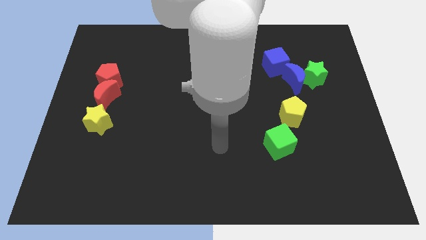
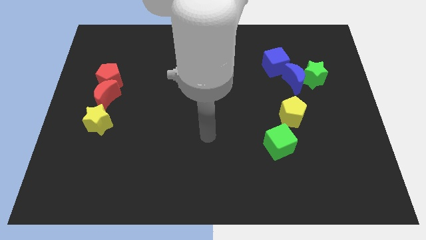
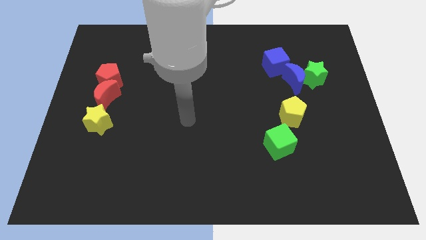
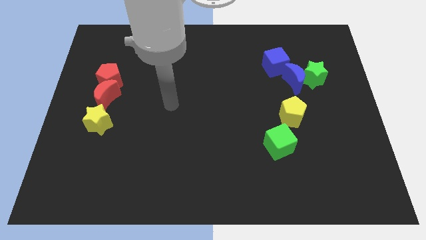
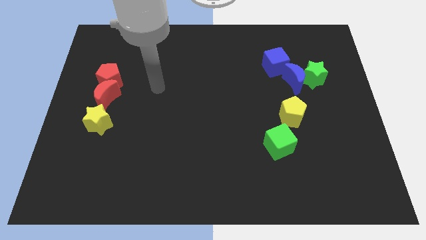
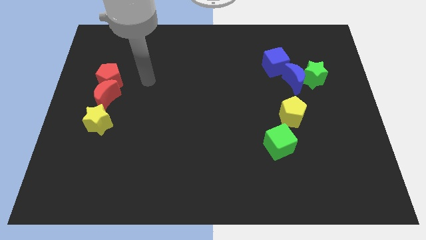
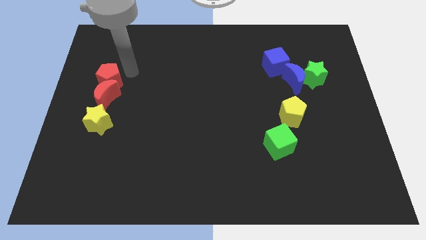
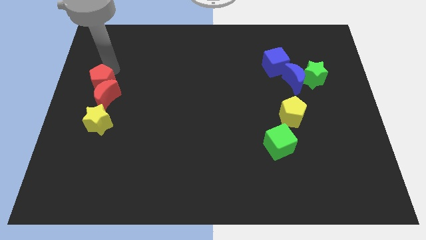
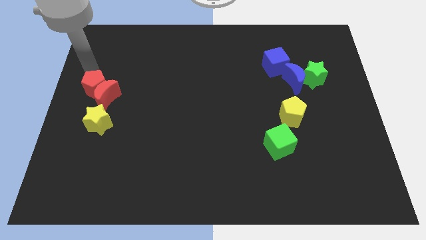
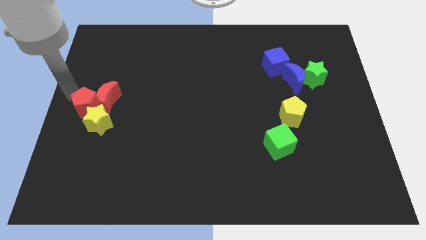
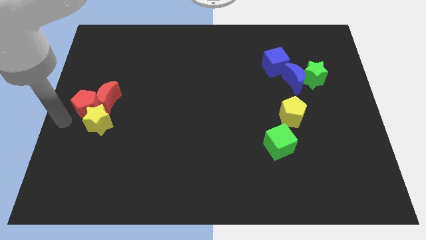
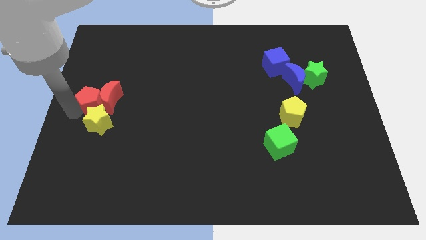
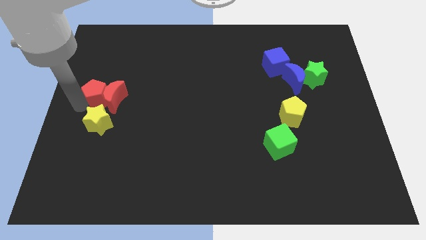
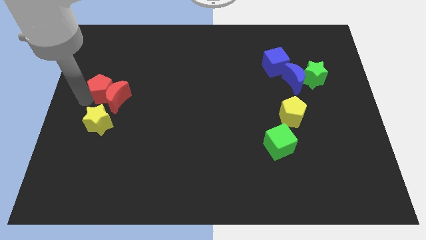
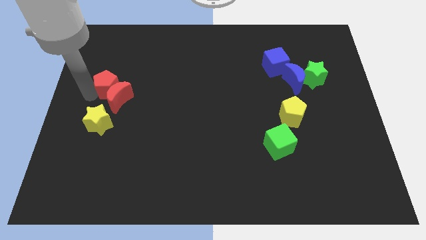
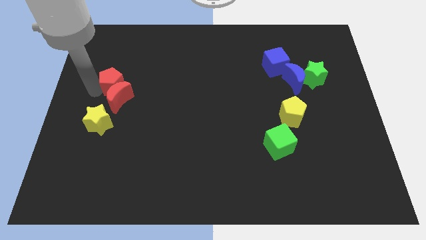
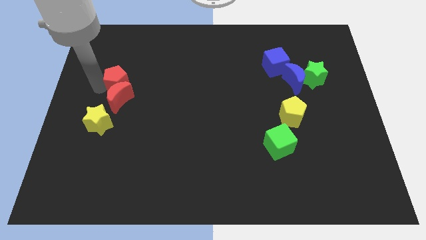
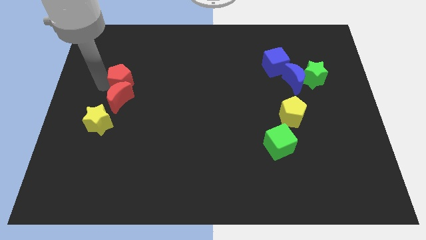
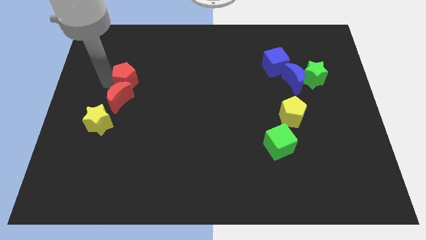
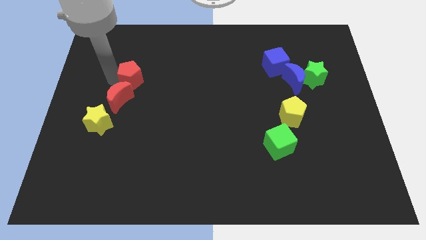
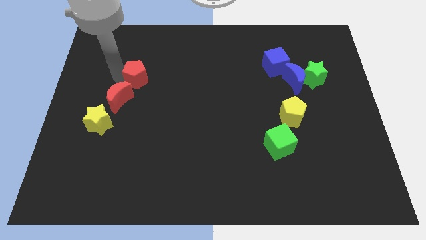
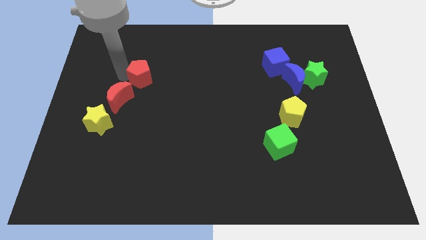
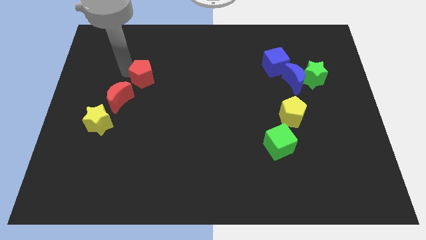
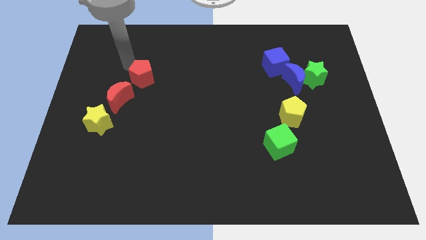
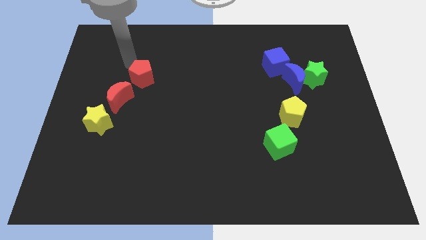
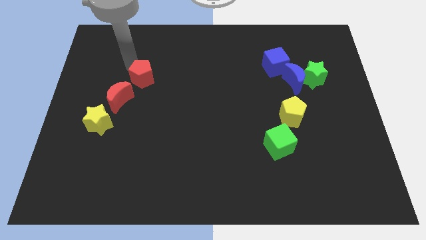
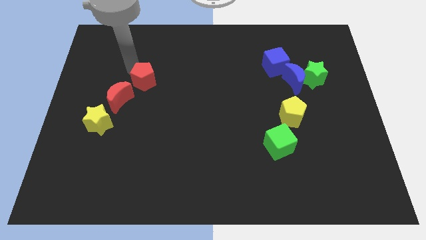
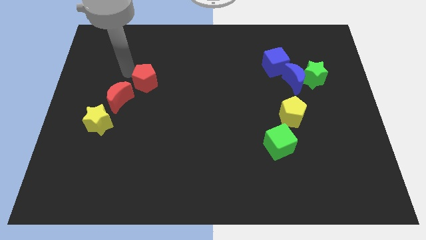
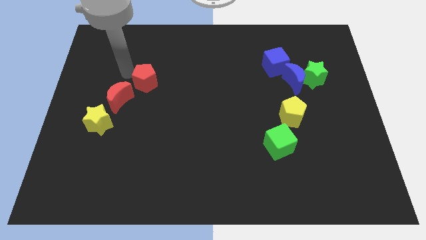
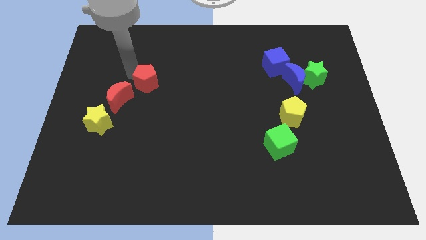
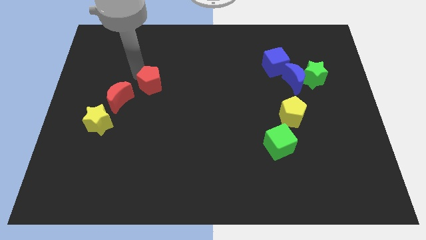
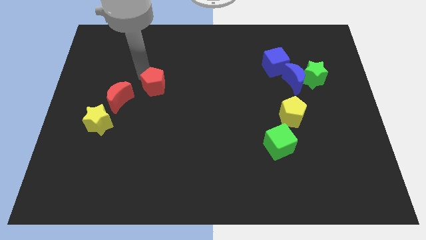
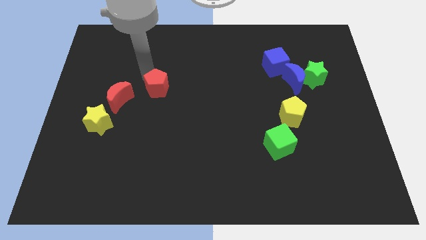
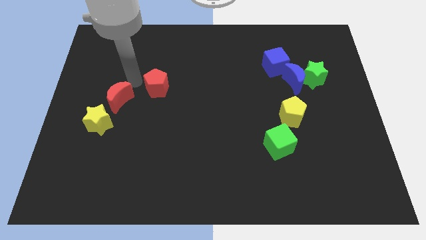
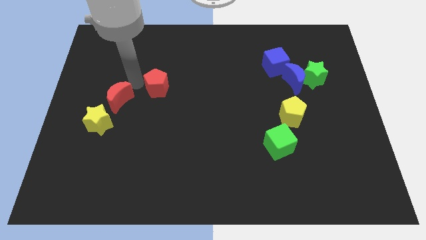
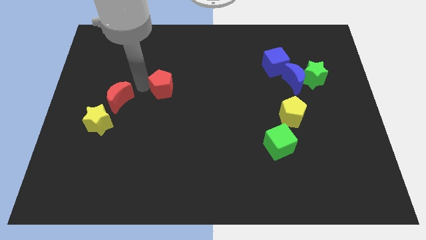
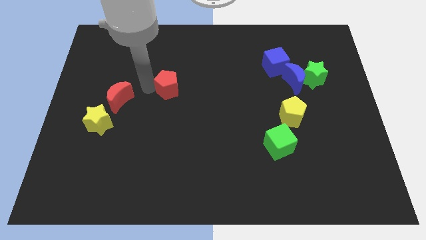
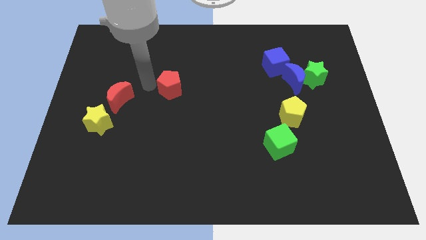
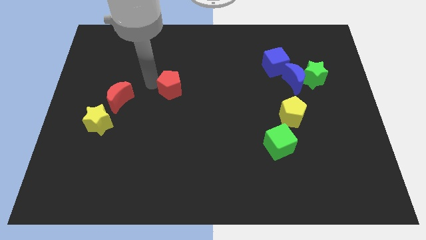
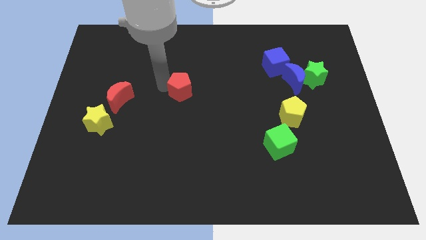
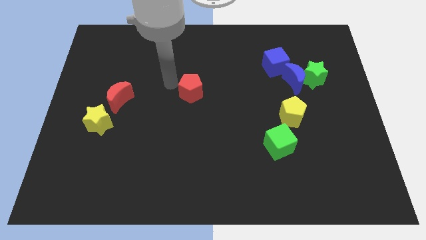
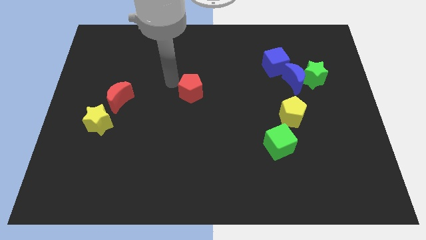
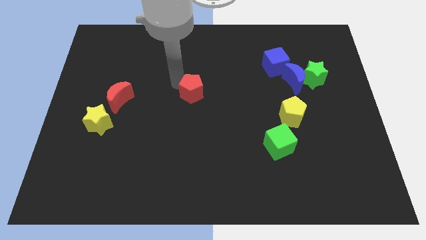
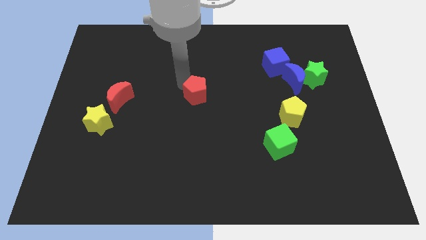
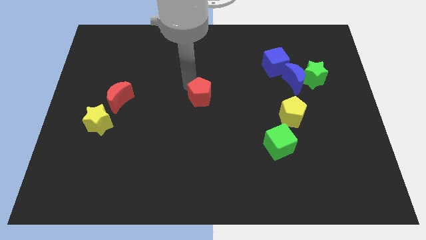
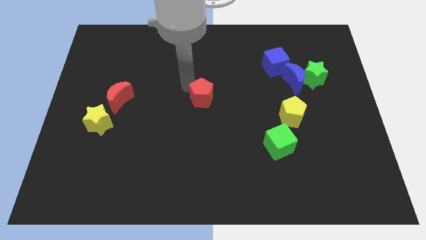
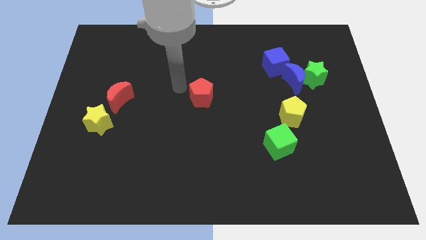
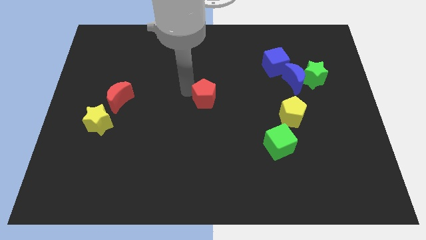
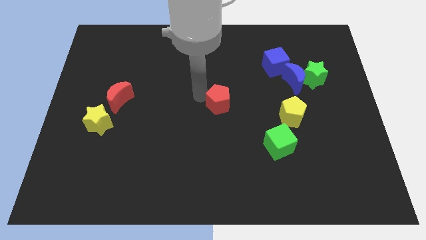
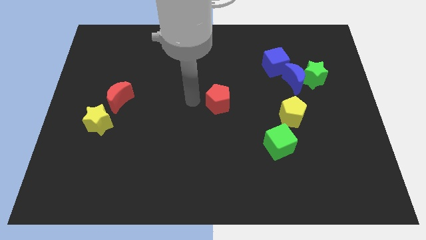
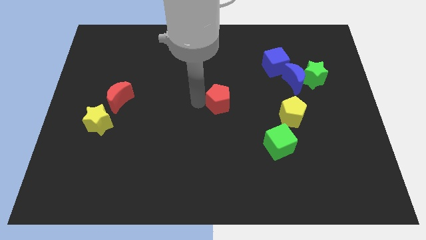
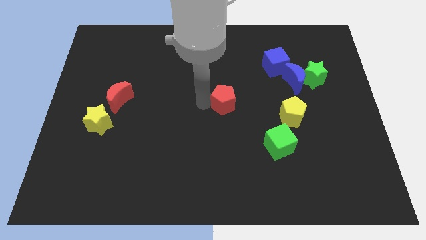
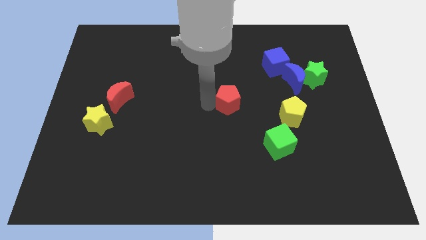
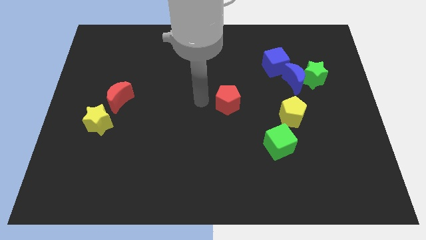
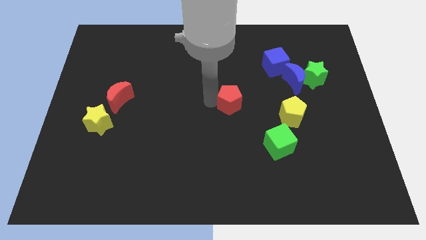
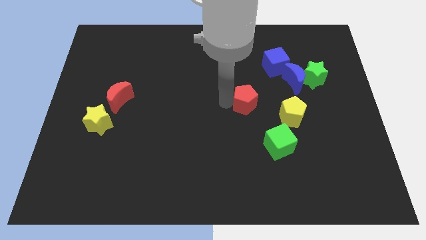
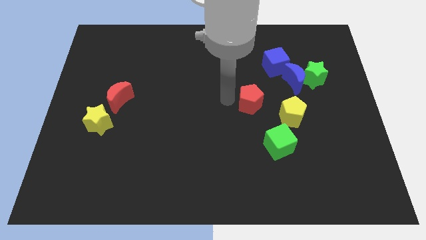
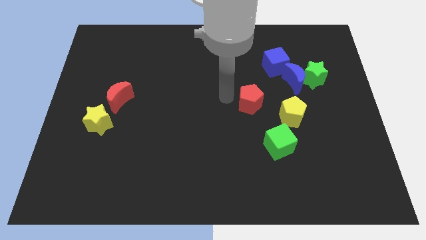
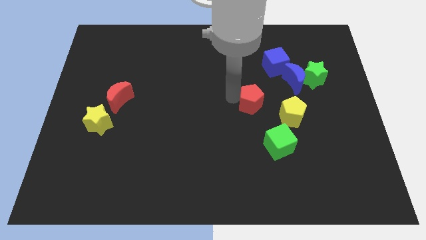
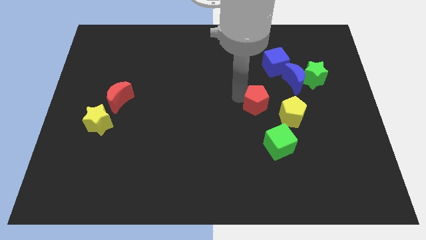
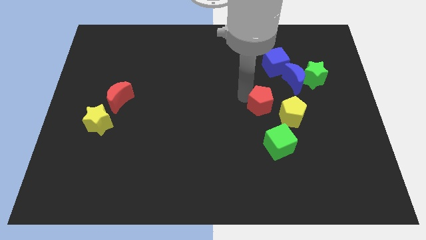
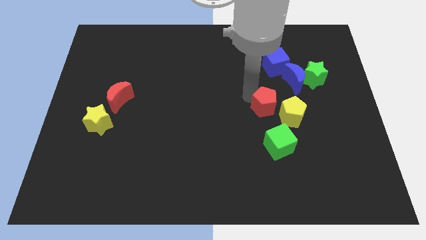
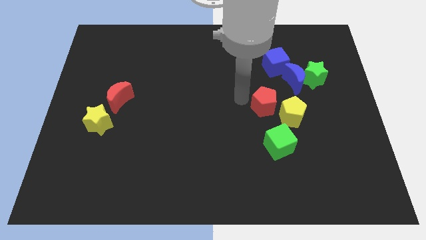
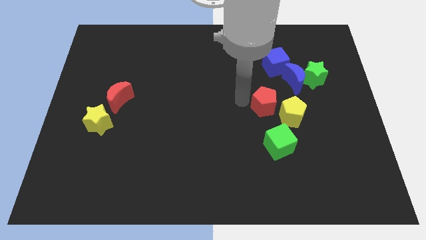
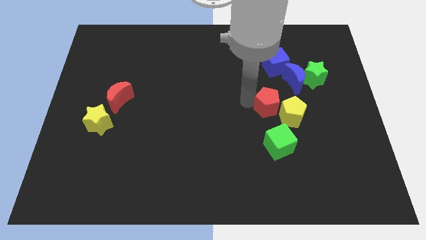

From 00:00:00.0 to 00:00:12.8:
move the red pentagon next to the yellow pentagon

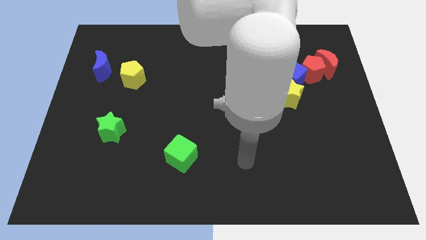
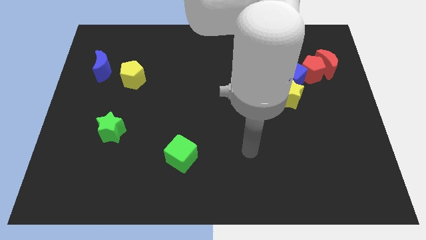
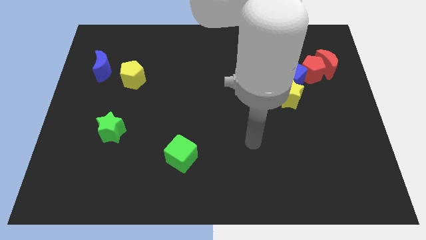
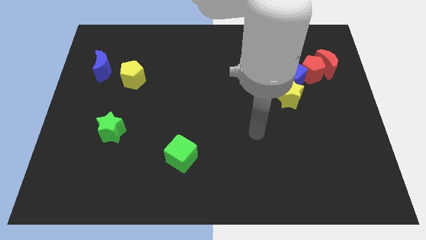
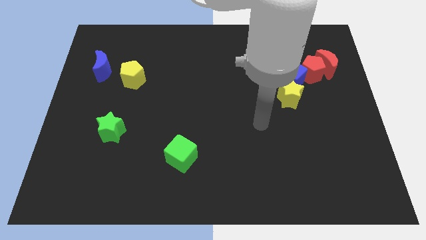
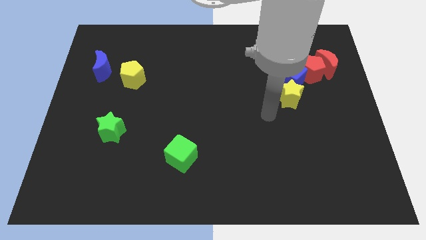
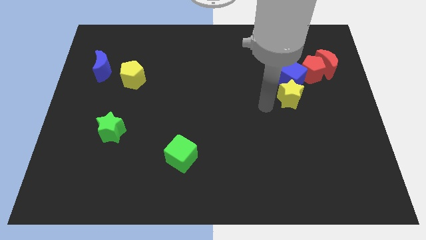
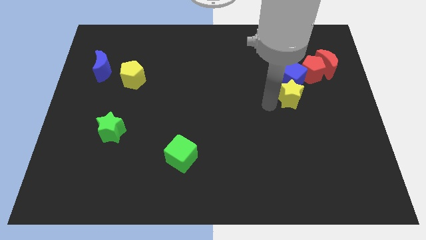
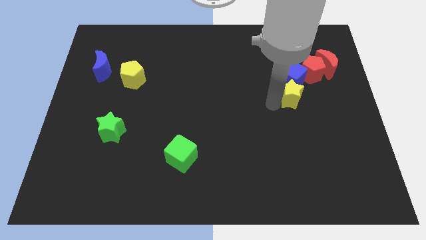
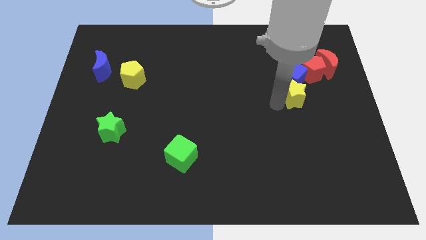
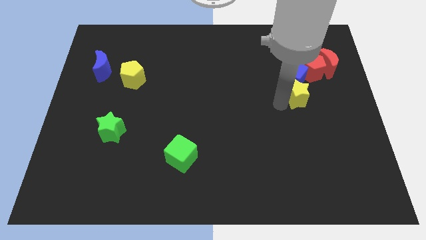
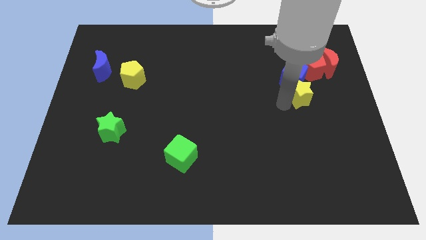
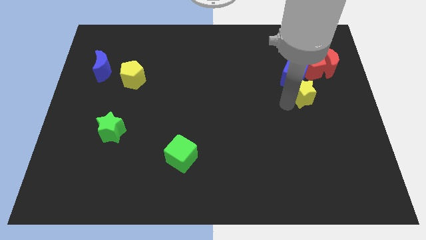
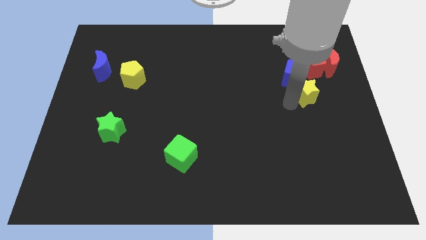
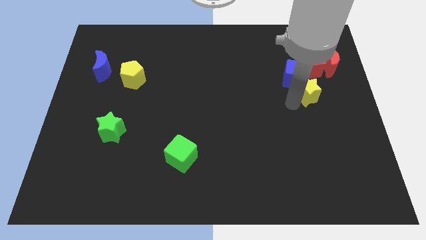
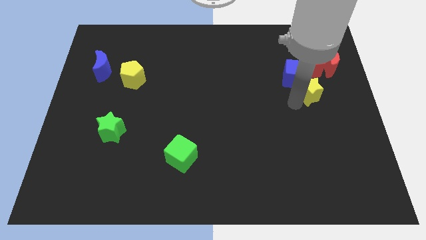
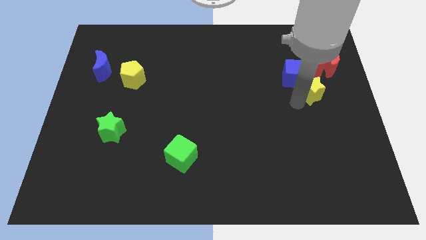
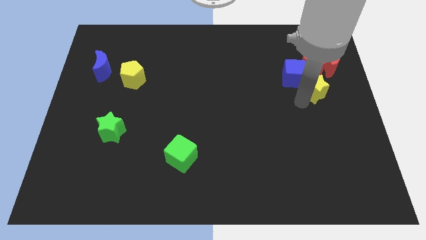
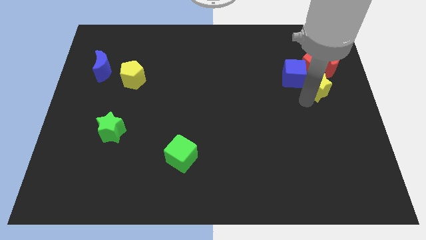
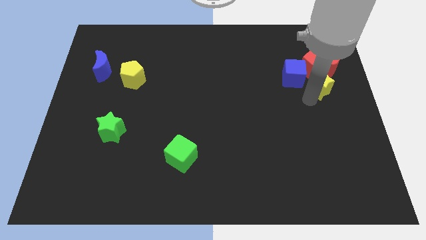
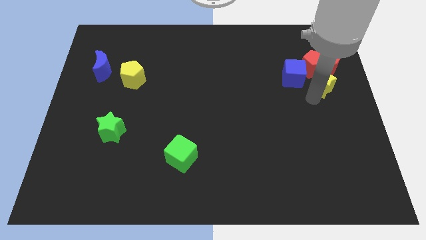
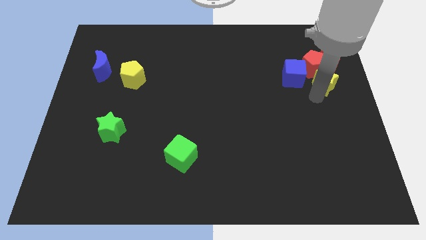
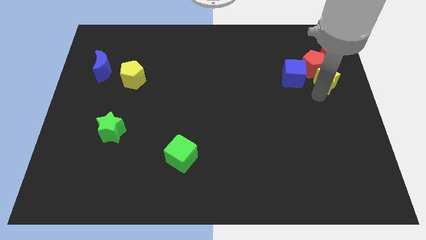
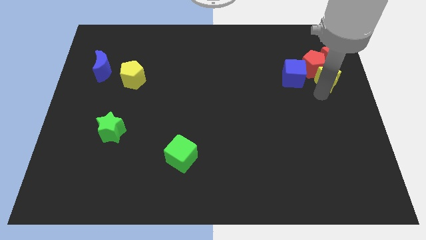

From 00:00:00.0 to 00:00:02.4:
move the yellow star next to the red moon
